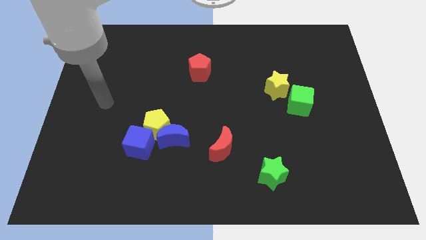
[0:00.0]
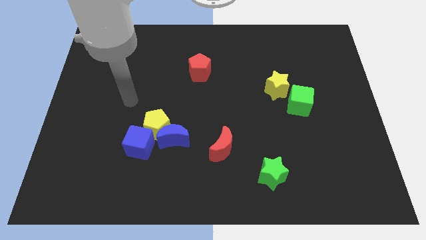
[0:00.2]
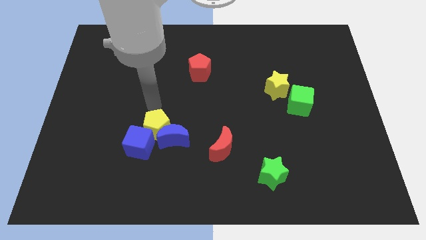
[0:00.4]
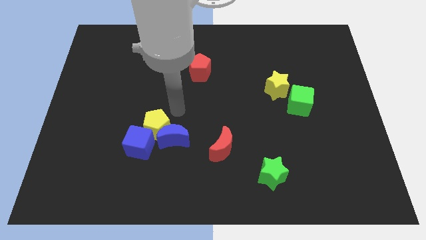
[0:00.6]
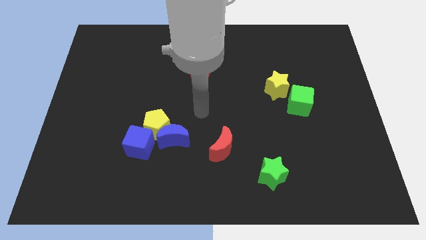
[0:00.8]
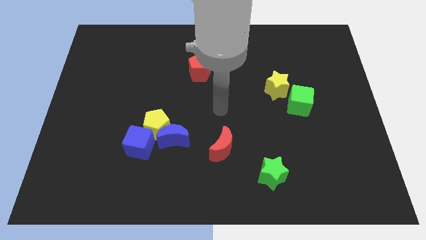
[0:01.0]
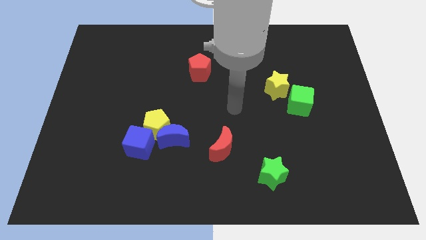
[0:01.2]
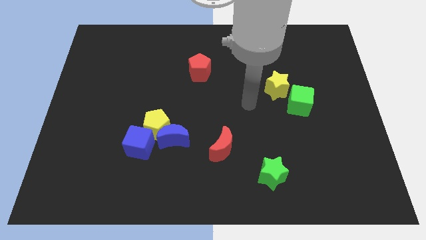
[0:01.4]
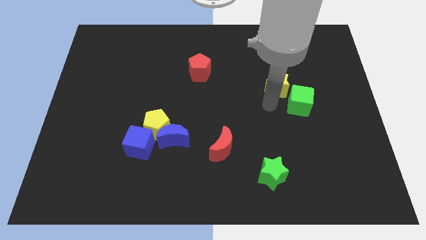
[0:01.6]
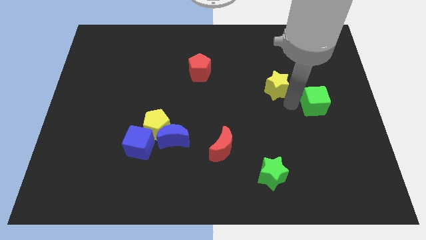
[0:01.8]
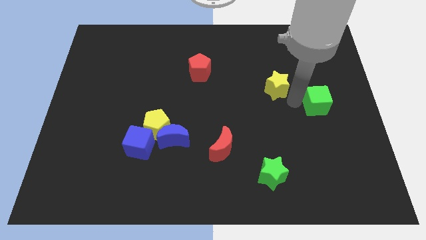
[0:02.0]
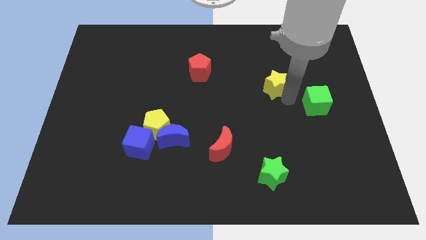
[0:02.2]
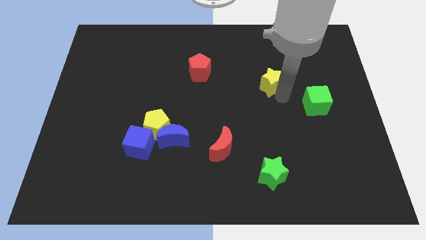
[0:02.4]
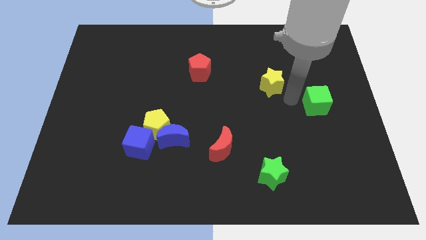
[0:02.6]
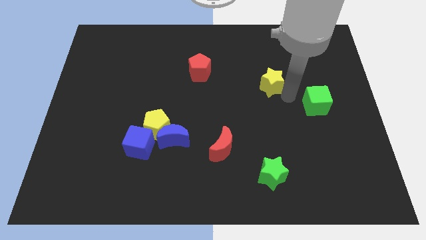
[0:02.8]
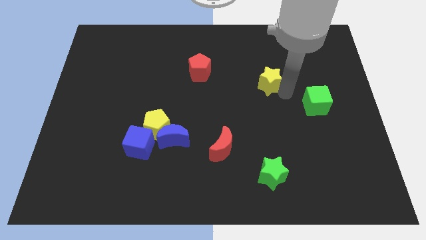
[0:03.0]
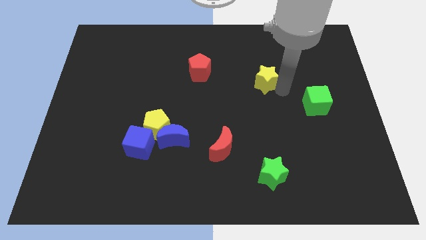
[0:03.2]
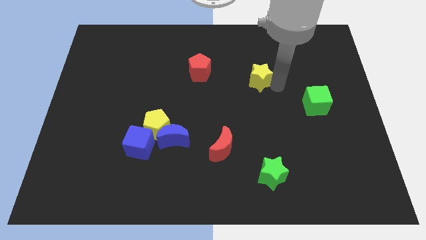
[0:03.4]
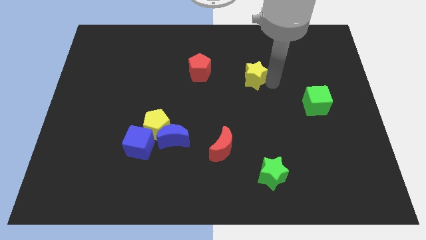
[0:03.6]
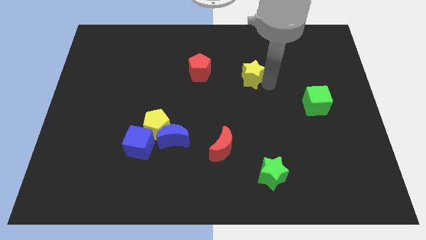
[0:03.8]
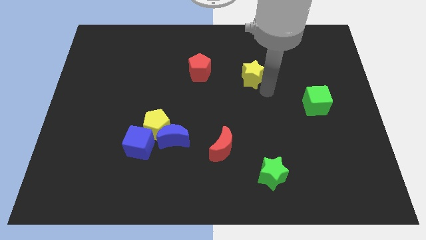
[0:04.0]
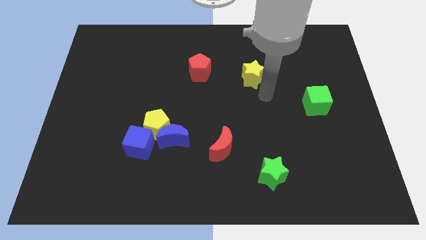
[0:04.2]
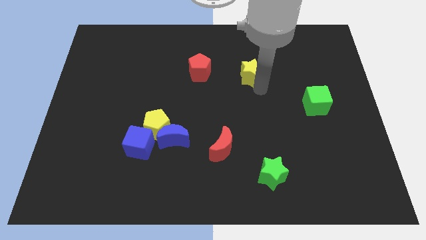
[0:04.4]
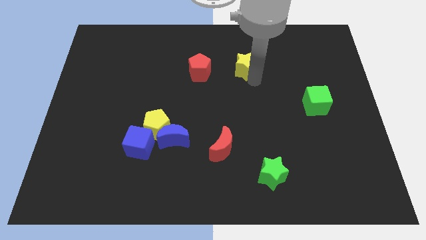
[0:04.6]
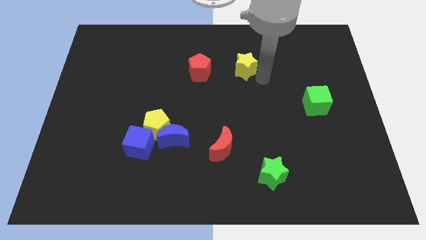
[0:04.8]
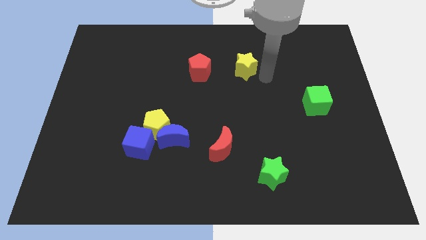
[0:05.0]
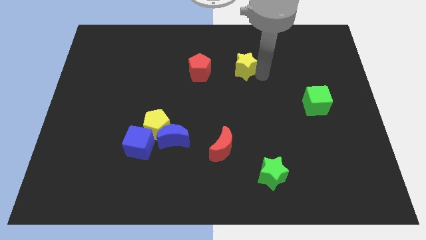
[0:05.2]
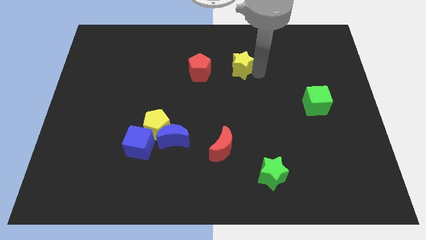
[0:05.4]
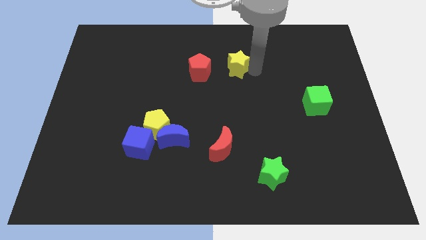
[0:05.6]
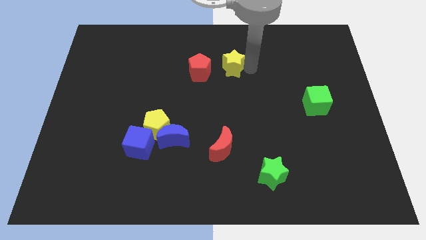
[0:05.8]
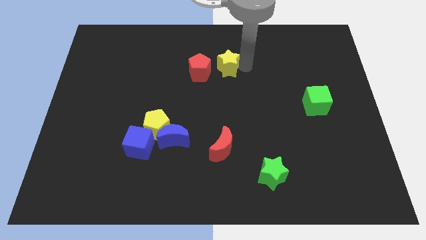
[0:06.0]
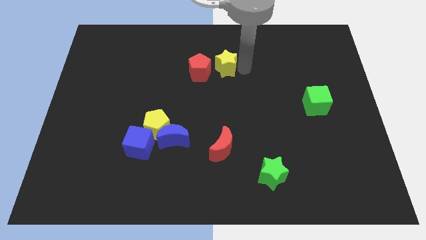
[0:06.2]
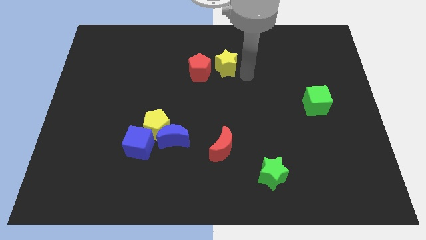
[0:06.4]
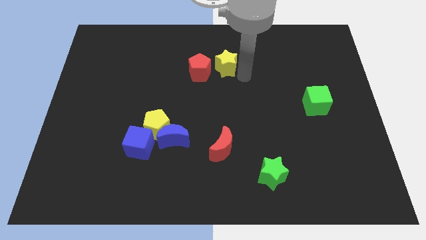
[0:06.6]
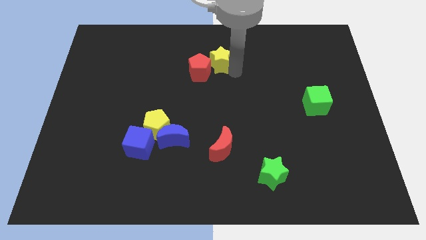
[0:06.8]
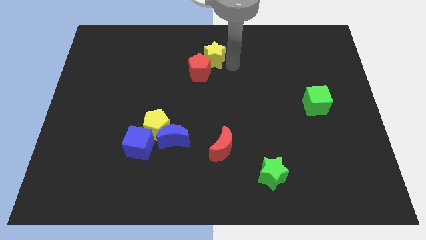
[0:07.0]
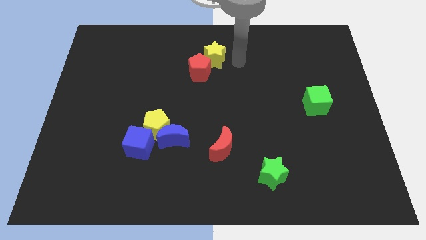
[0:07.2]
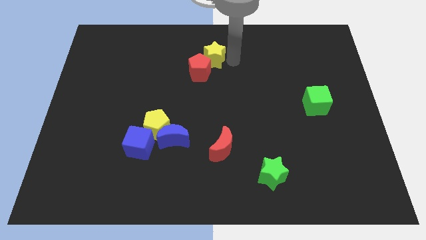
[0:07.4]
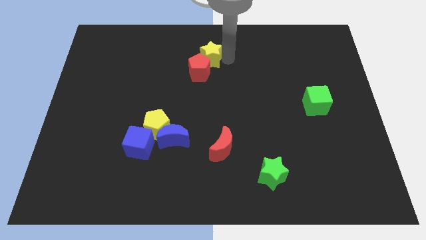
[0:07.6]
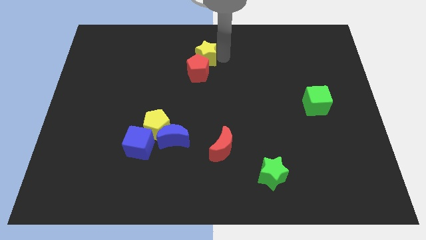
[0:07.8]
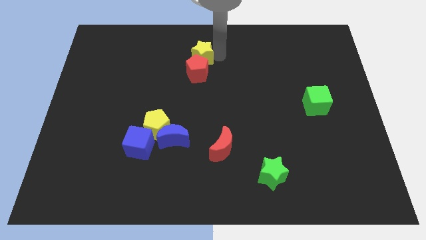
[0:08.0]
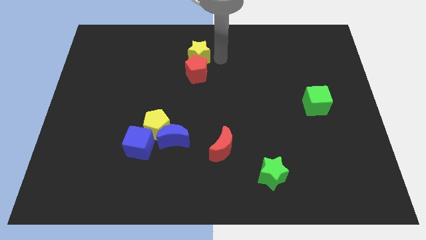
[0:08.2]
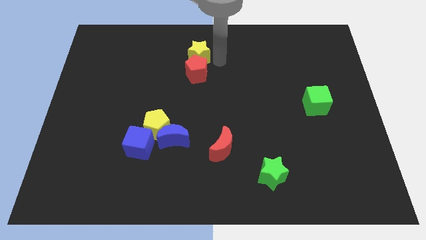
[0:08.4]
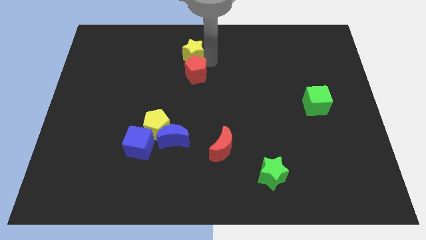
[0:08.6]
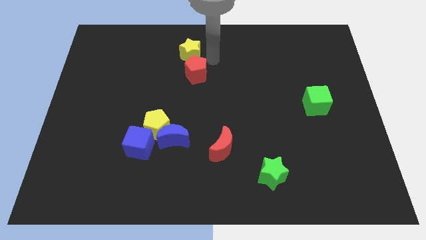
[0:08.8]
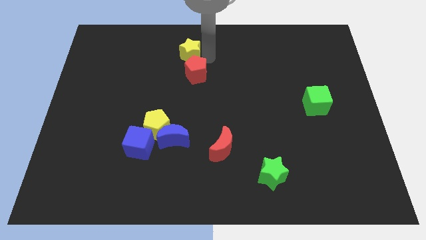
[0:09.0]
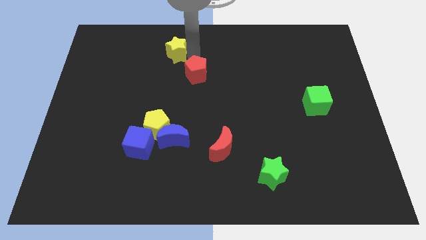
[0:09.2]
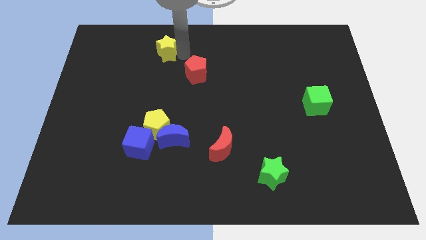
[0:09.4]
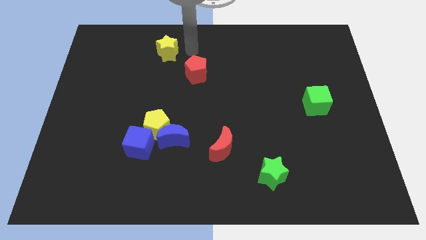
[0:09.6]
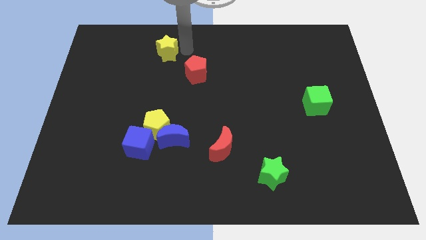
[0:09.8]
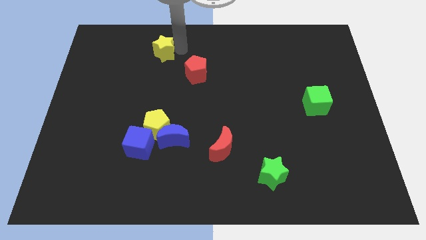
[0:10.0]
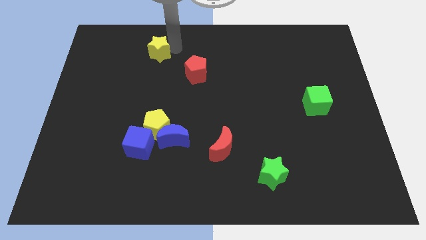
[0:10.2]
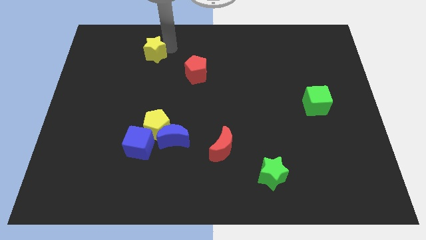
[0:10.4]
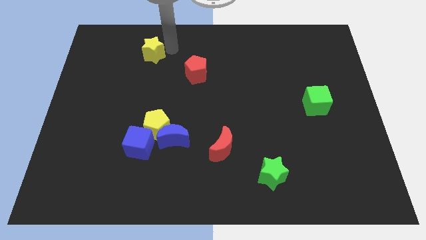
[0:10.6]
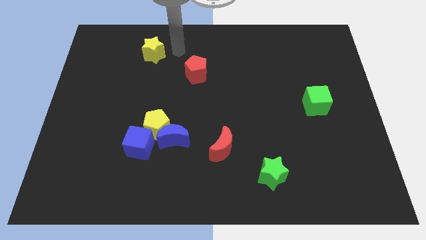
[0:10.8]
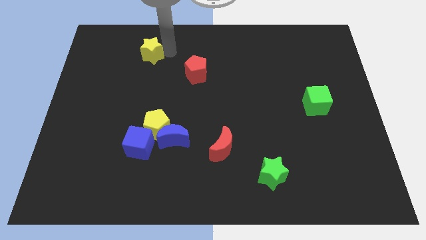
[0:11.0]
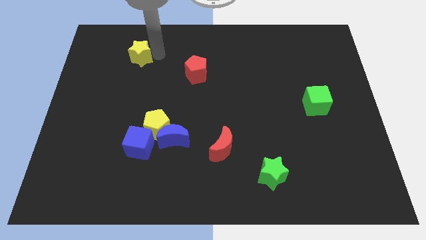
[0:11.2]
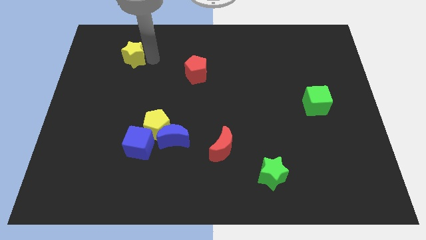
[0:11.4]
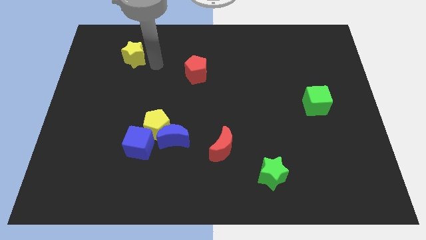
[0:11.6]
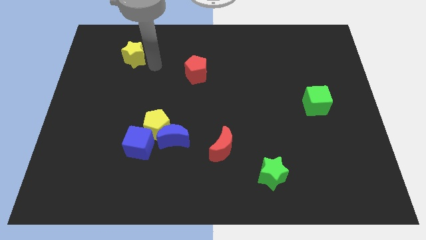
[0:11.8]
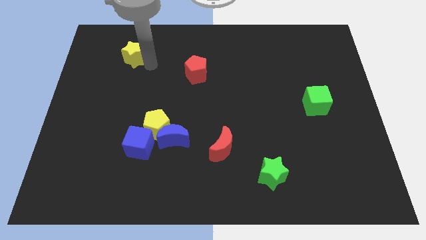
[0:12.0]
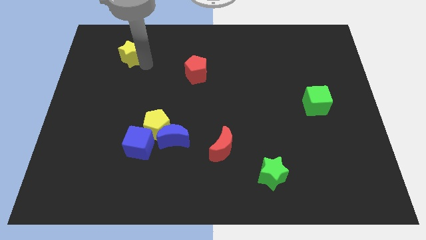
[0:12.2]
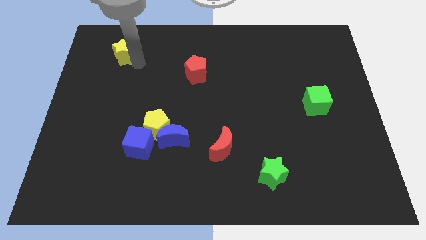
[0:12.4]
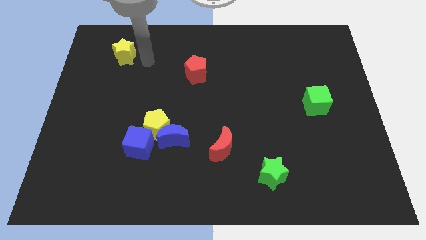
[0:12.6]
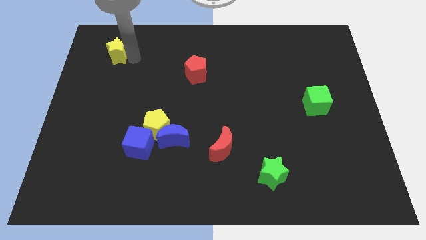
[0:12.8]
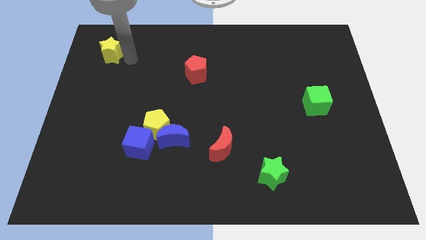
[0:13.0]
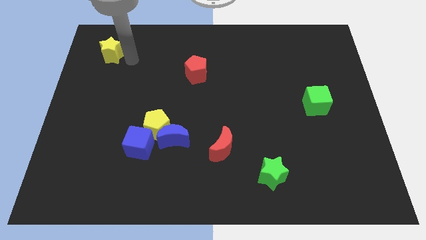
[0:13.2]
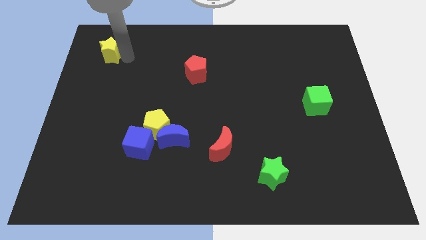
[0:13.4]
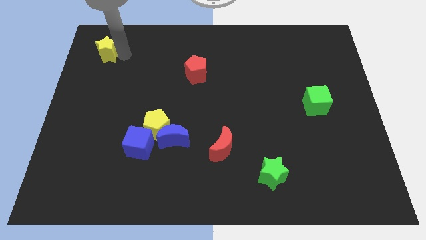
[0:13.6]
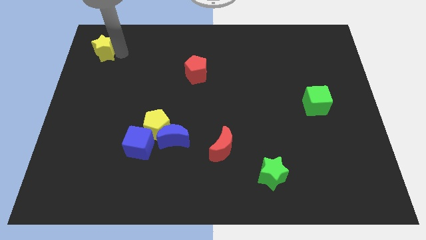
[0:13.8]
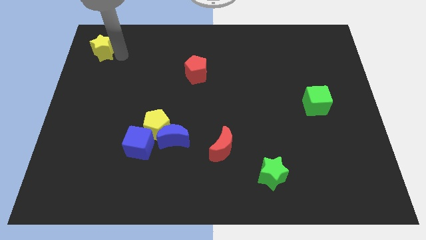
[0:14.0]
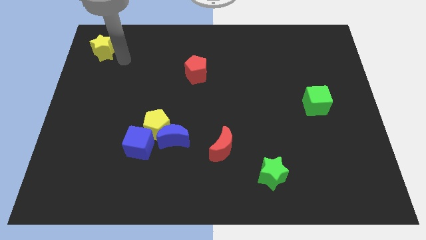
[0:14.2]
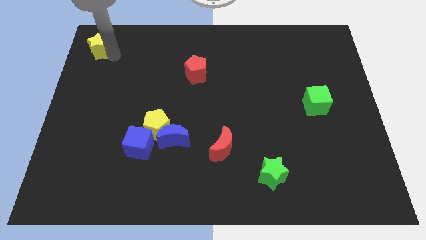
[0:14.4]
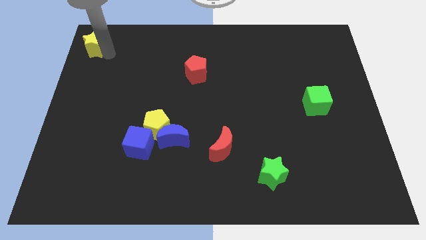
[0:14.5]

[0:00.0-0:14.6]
put the yellow star to the top left of the board
